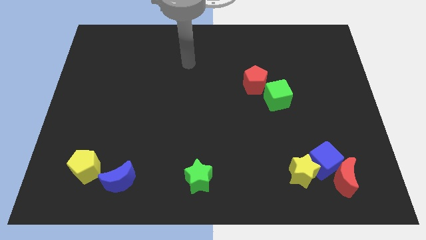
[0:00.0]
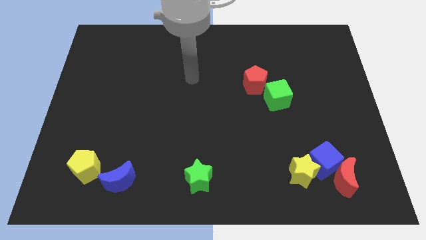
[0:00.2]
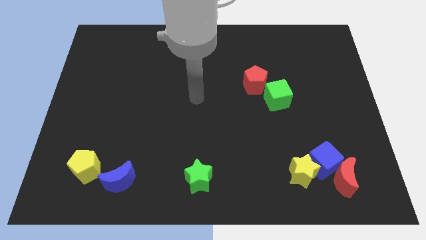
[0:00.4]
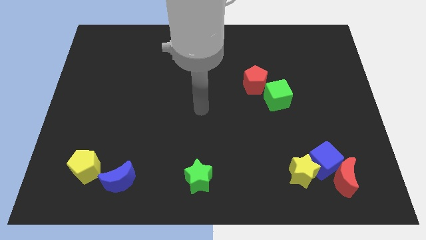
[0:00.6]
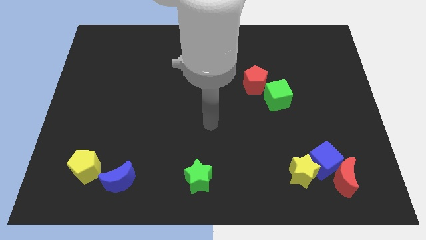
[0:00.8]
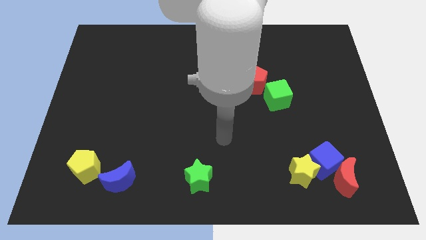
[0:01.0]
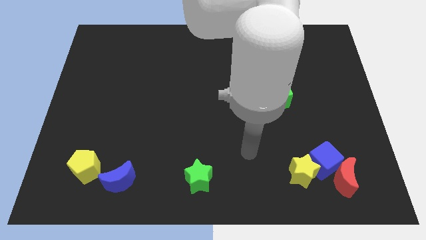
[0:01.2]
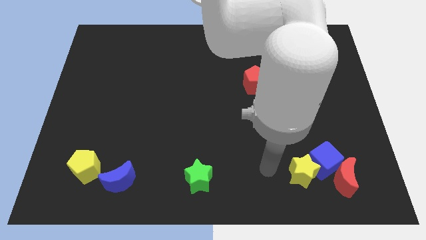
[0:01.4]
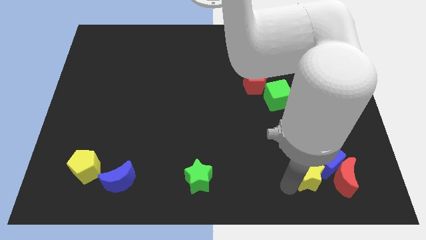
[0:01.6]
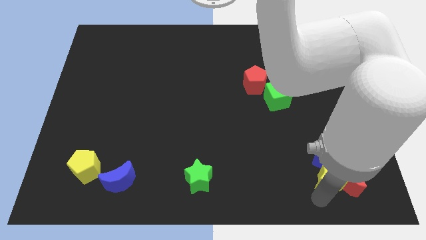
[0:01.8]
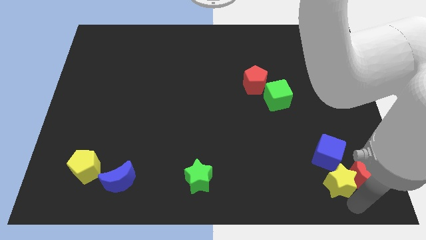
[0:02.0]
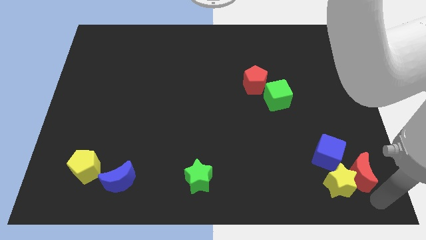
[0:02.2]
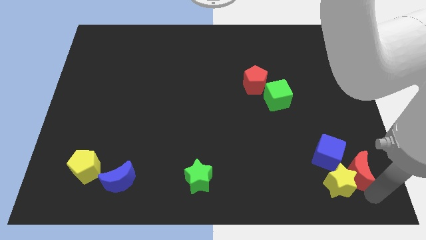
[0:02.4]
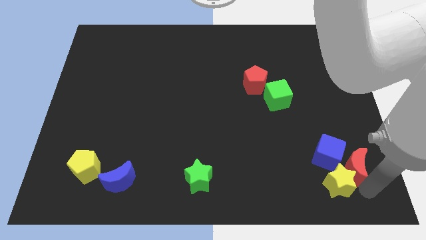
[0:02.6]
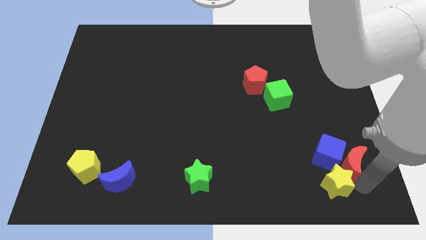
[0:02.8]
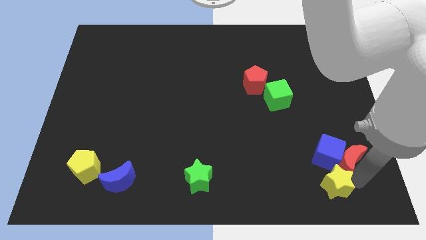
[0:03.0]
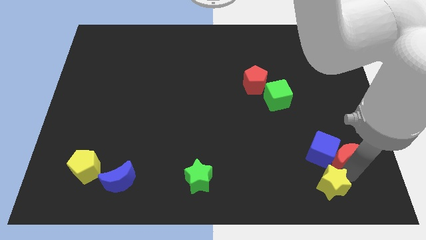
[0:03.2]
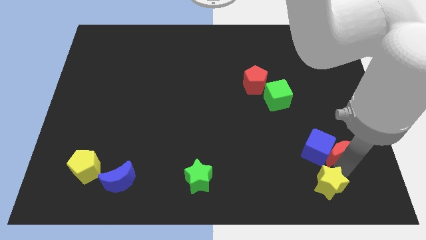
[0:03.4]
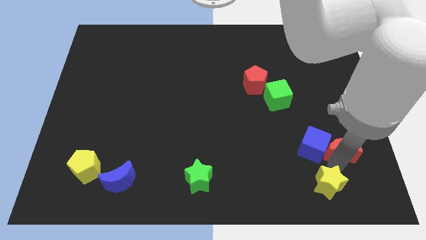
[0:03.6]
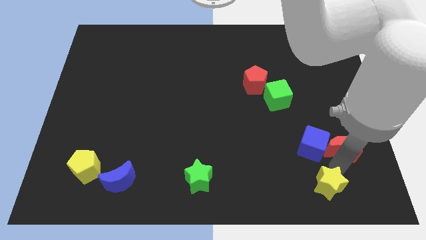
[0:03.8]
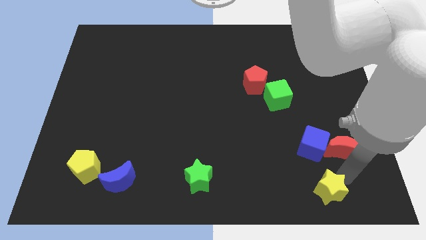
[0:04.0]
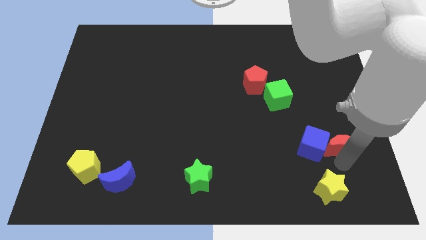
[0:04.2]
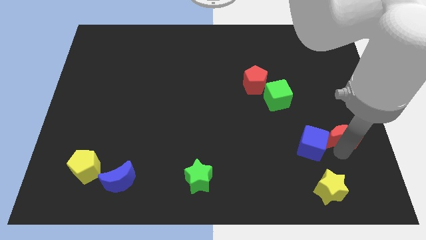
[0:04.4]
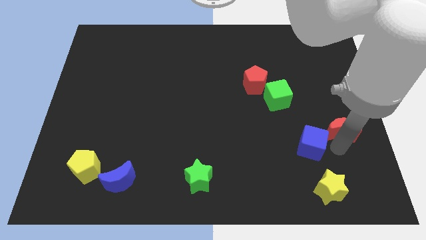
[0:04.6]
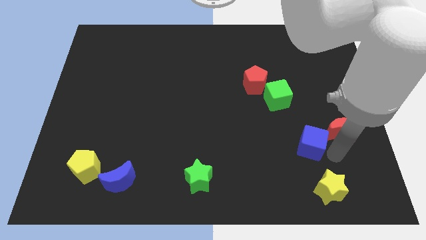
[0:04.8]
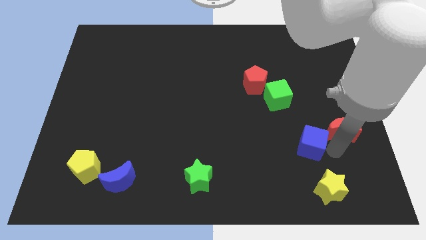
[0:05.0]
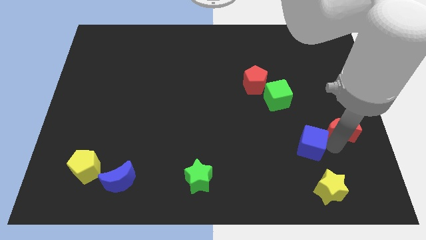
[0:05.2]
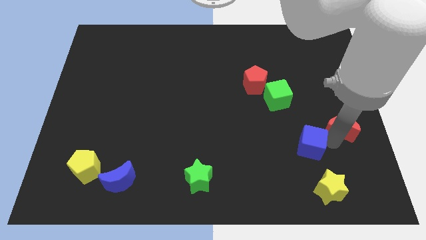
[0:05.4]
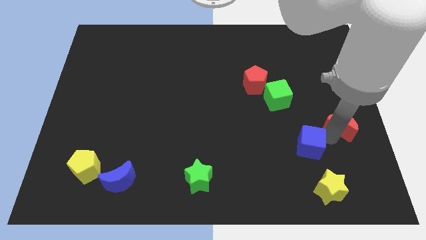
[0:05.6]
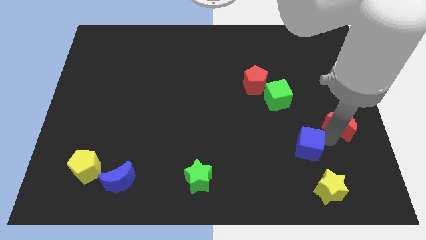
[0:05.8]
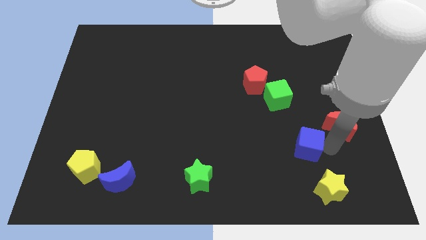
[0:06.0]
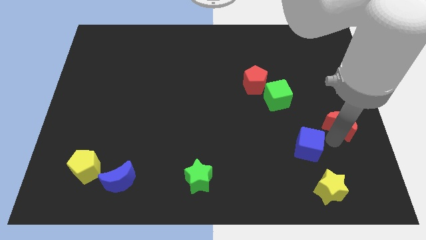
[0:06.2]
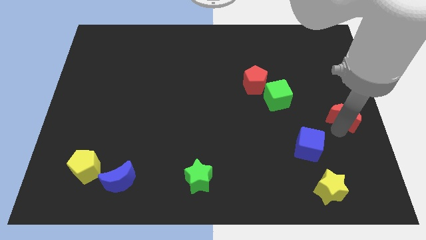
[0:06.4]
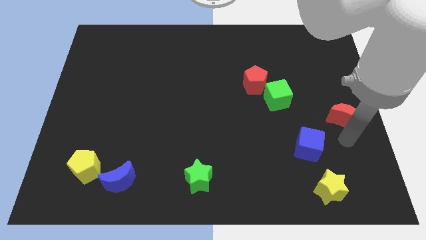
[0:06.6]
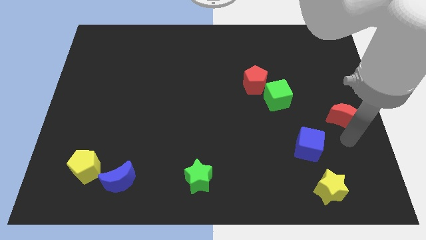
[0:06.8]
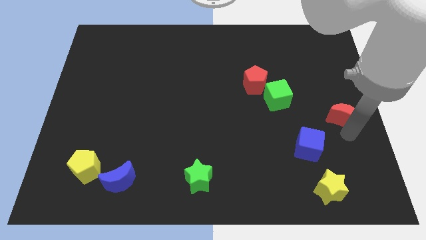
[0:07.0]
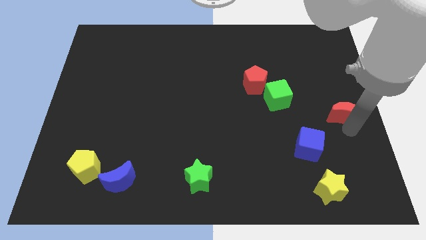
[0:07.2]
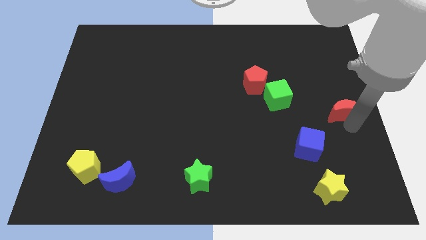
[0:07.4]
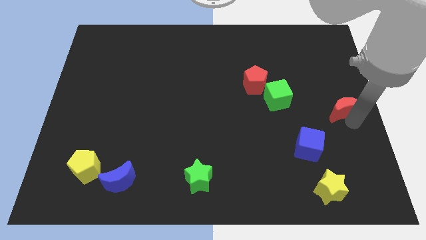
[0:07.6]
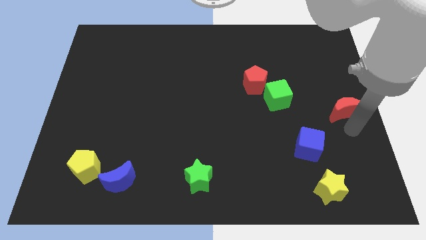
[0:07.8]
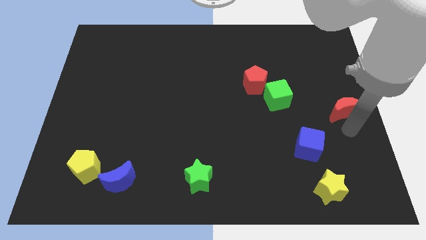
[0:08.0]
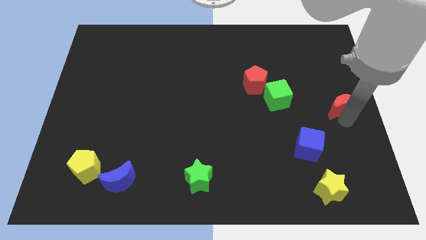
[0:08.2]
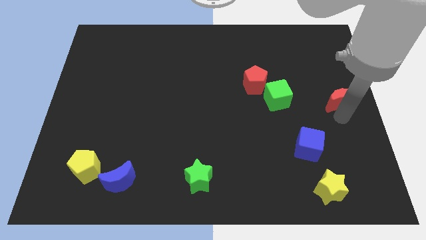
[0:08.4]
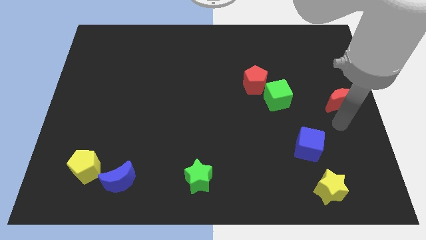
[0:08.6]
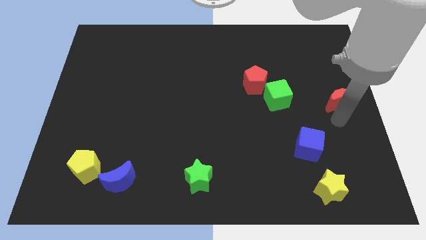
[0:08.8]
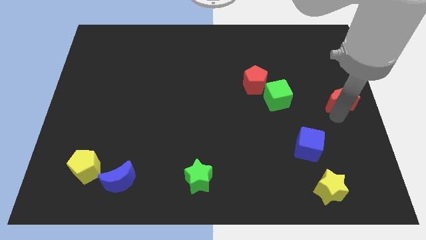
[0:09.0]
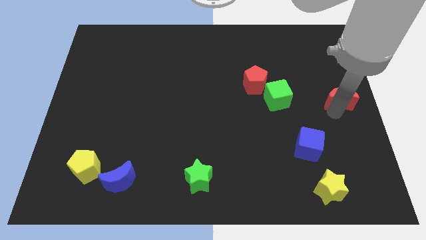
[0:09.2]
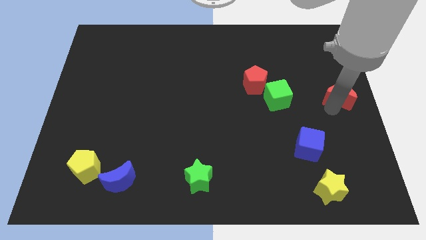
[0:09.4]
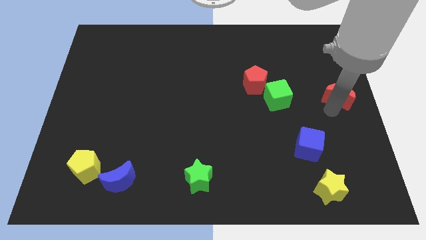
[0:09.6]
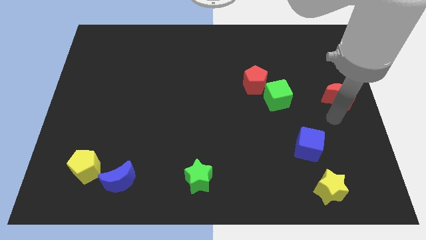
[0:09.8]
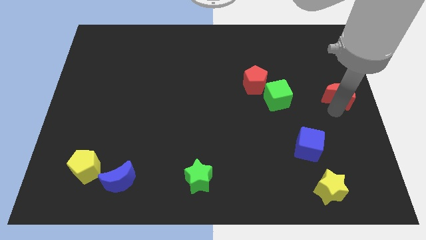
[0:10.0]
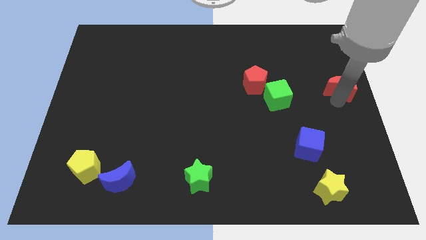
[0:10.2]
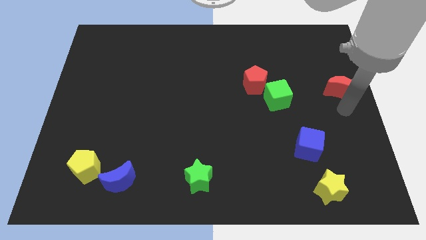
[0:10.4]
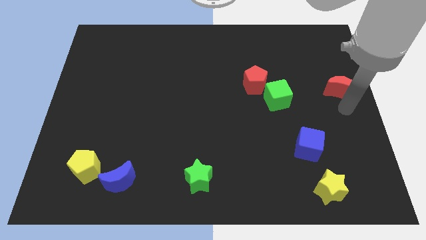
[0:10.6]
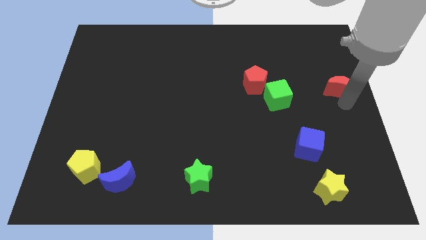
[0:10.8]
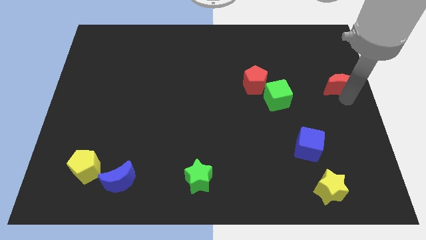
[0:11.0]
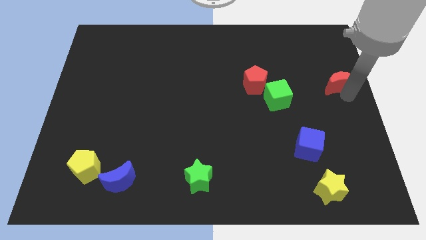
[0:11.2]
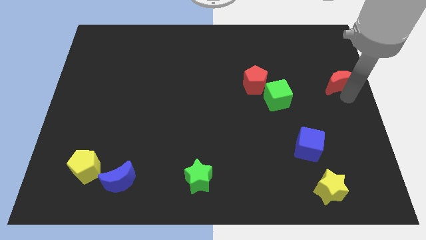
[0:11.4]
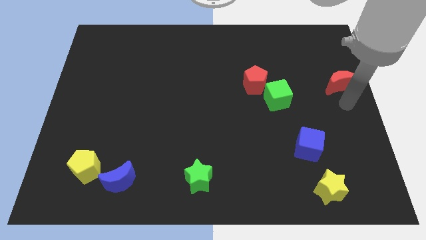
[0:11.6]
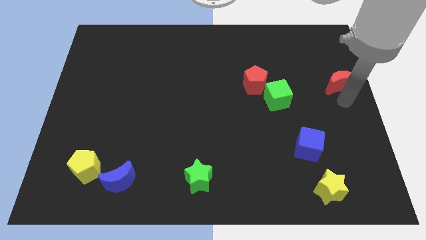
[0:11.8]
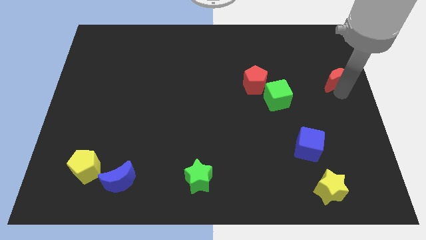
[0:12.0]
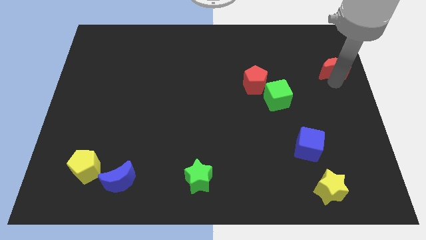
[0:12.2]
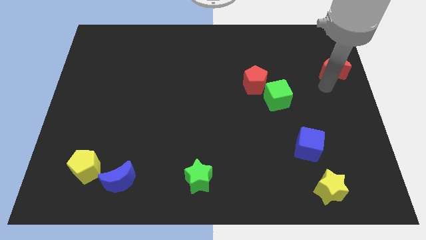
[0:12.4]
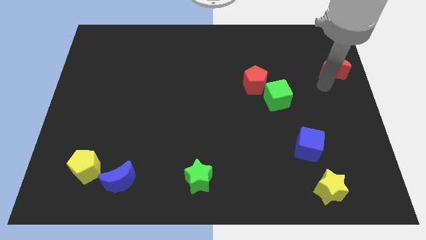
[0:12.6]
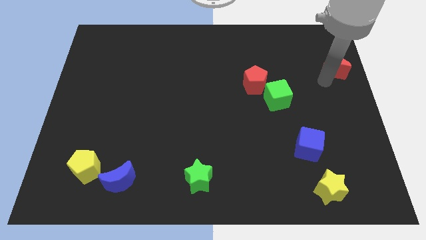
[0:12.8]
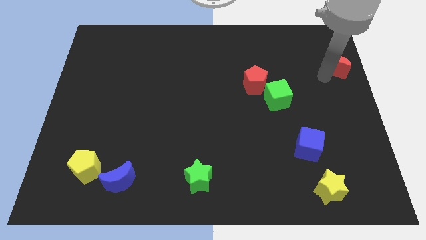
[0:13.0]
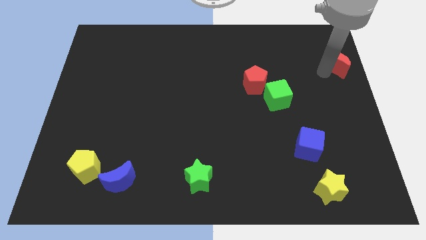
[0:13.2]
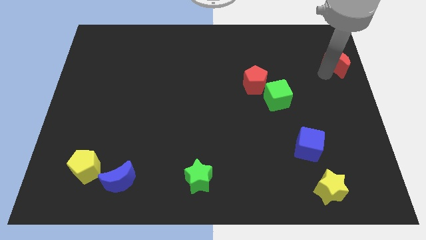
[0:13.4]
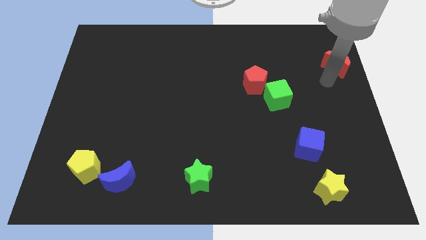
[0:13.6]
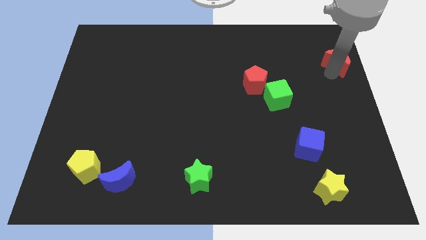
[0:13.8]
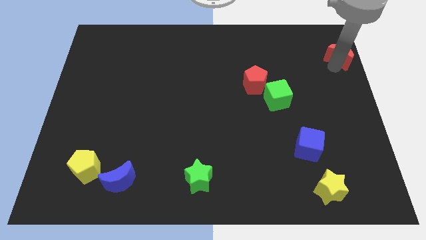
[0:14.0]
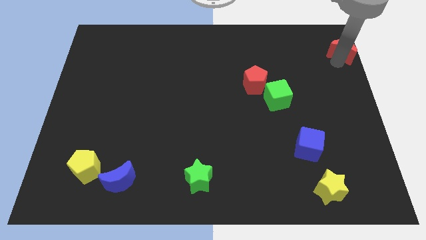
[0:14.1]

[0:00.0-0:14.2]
push the red moon to the top right

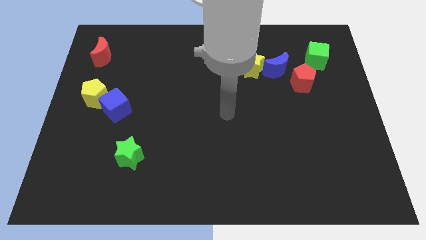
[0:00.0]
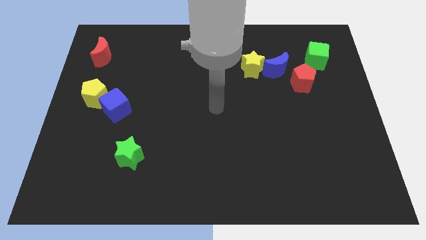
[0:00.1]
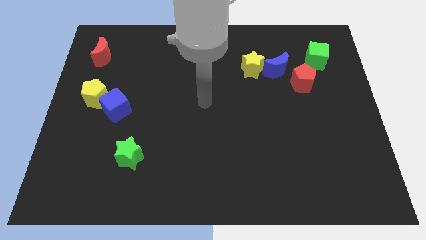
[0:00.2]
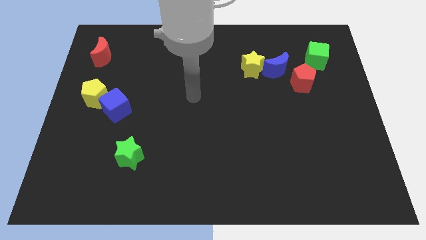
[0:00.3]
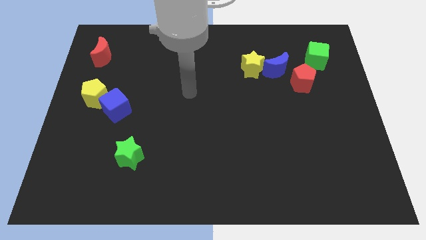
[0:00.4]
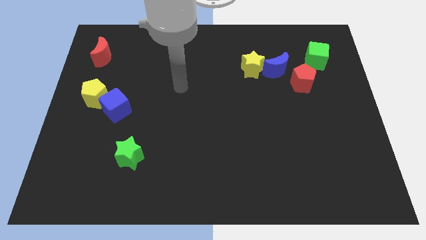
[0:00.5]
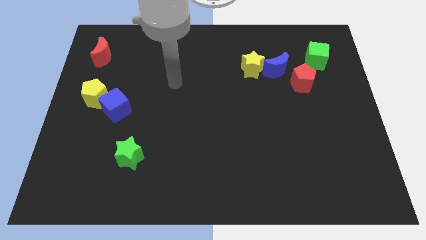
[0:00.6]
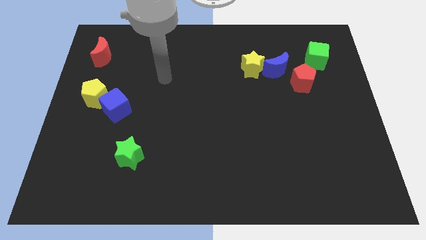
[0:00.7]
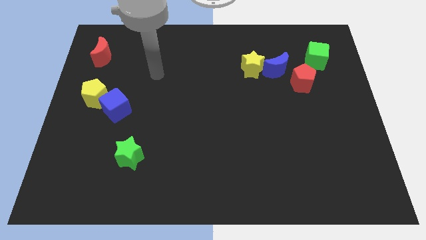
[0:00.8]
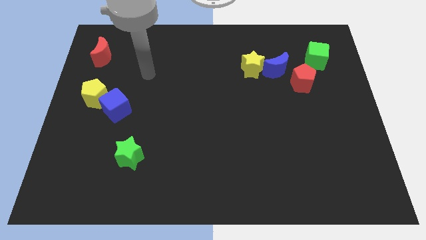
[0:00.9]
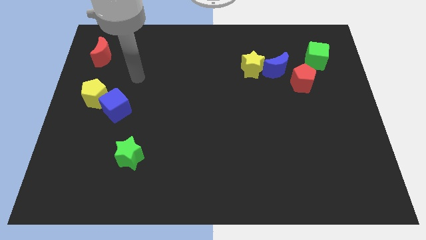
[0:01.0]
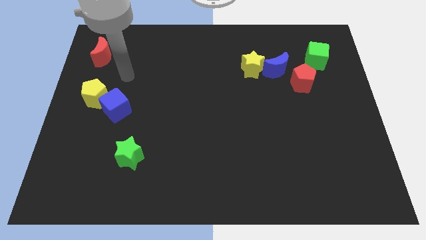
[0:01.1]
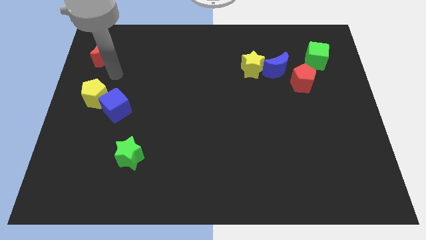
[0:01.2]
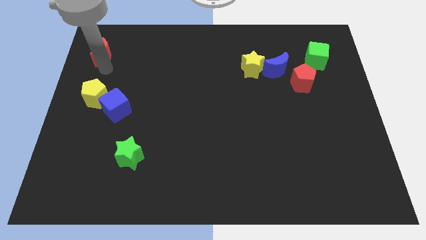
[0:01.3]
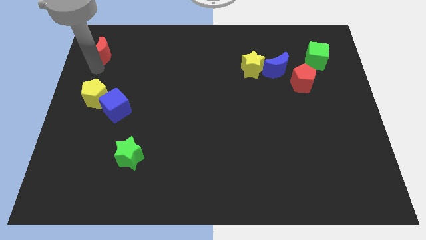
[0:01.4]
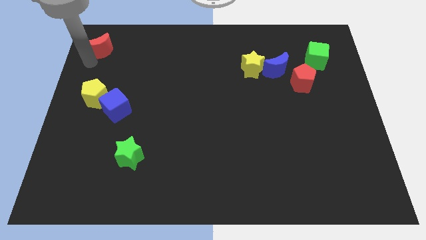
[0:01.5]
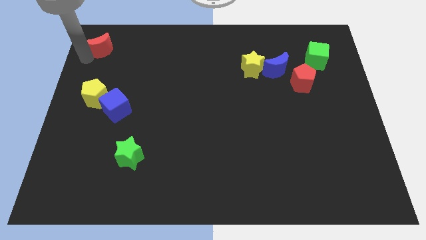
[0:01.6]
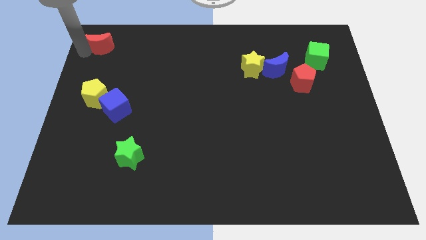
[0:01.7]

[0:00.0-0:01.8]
slide the red moon to the top left of the board
